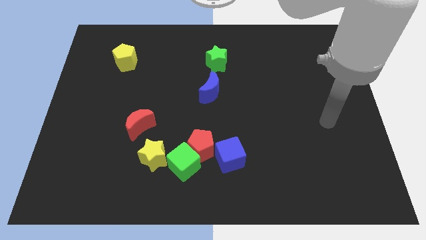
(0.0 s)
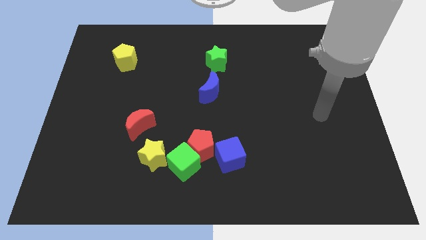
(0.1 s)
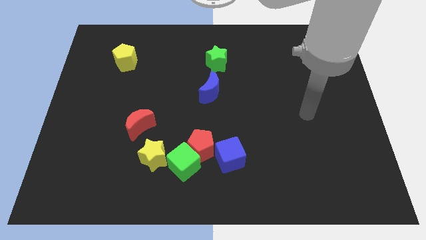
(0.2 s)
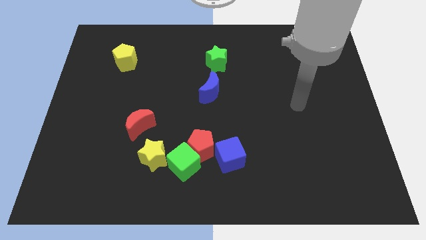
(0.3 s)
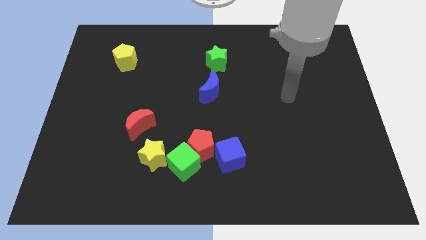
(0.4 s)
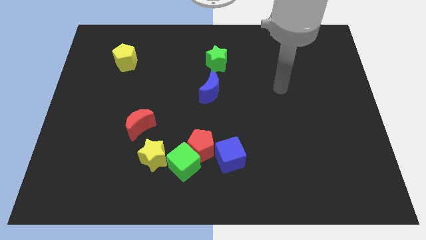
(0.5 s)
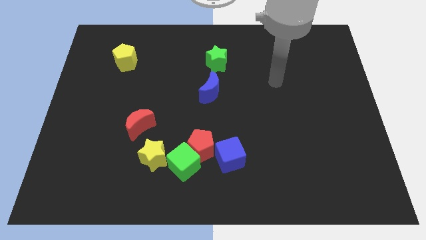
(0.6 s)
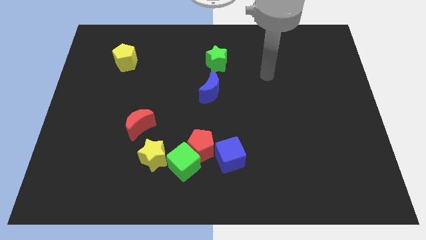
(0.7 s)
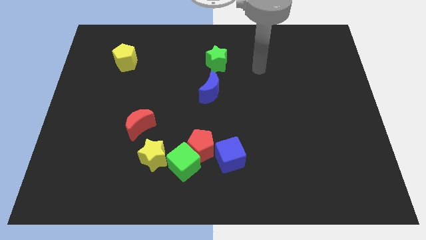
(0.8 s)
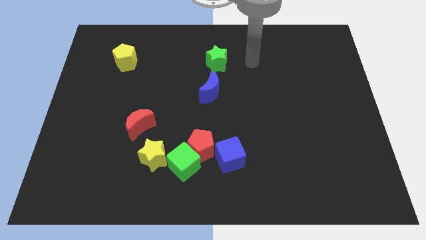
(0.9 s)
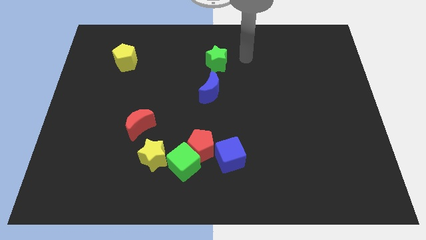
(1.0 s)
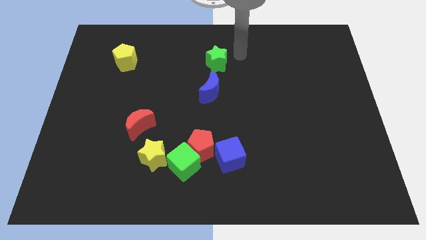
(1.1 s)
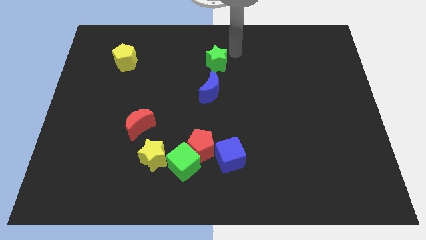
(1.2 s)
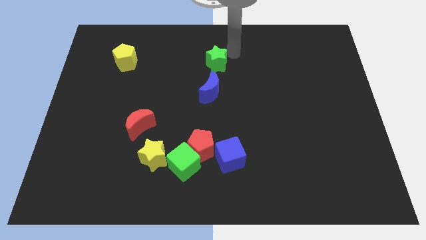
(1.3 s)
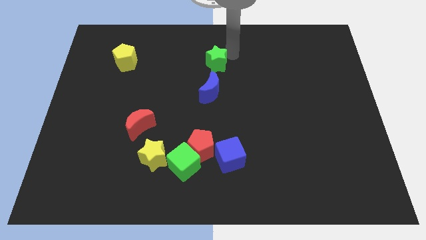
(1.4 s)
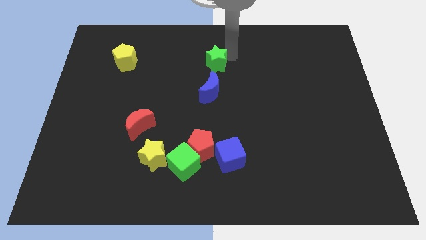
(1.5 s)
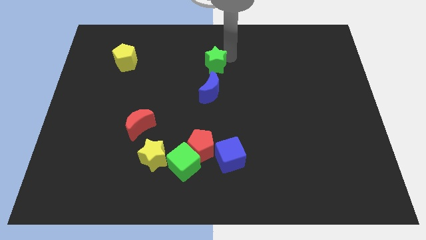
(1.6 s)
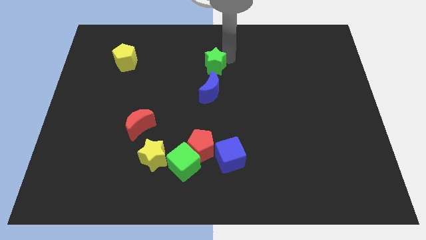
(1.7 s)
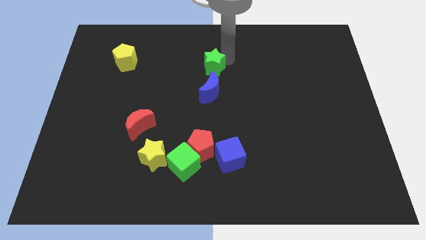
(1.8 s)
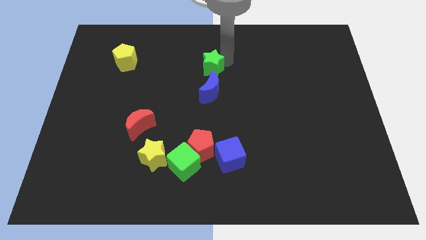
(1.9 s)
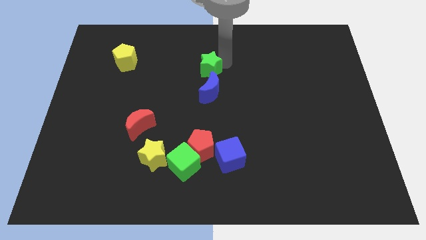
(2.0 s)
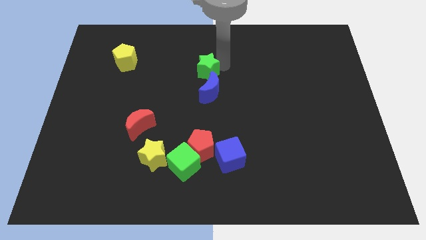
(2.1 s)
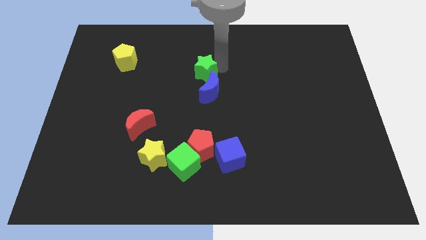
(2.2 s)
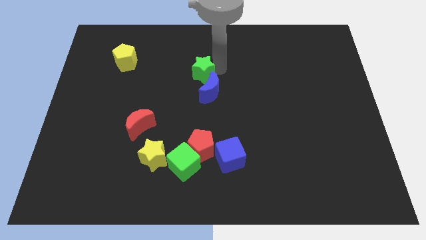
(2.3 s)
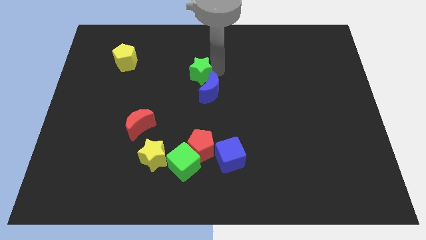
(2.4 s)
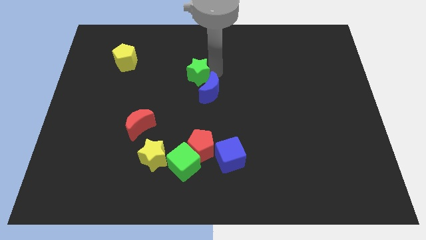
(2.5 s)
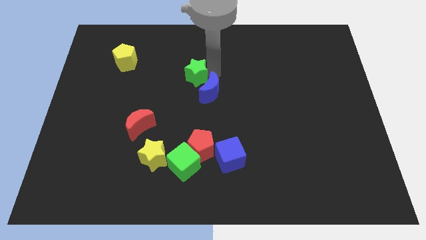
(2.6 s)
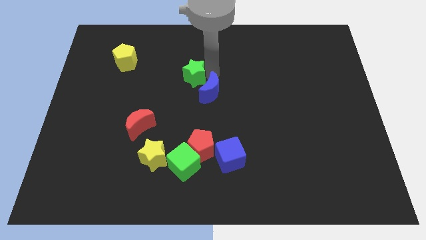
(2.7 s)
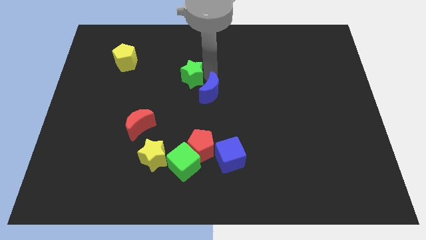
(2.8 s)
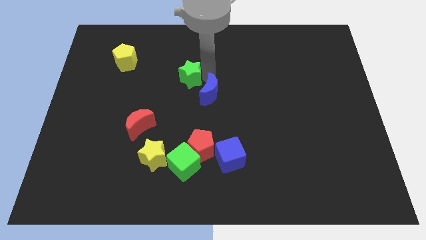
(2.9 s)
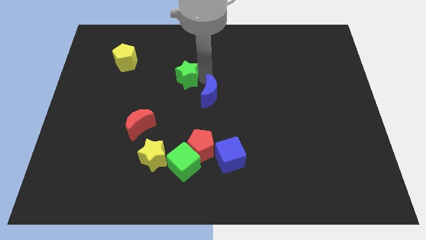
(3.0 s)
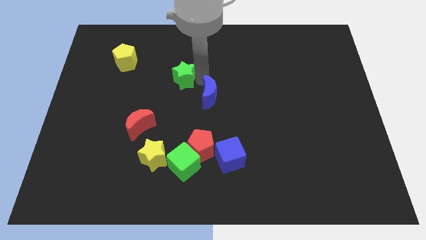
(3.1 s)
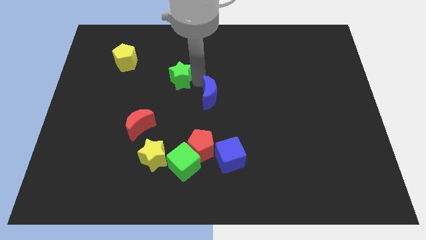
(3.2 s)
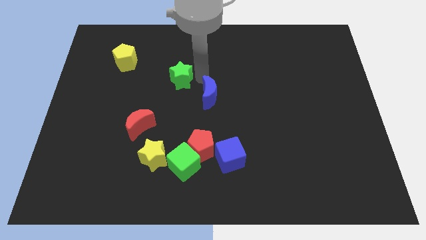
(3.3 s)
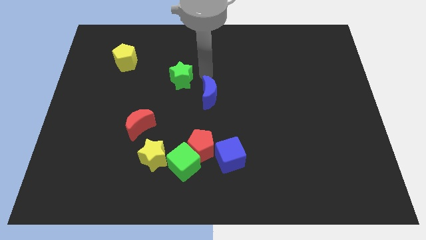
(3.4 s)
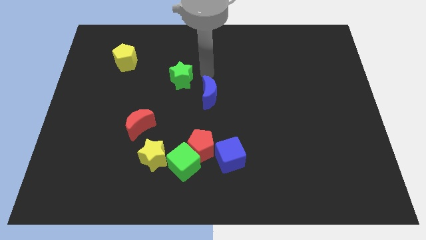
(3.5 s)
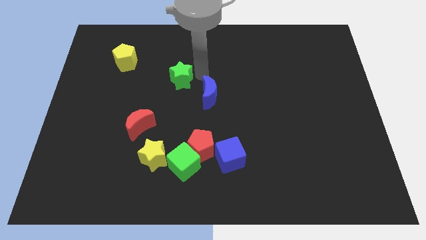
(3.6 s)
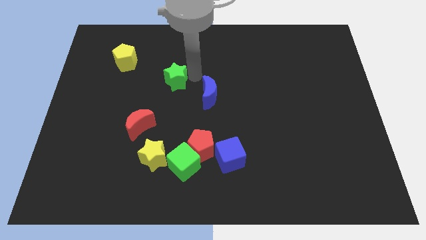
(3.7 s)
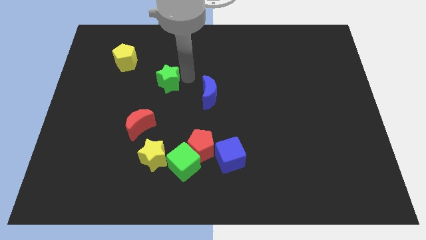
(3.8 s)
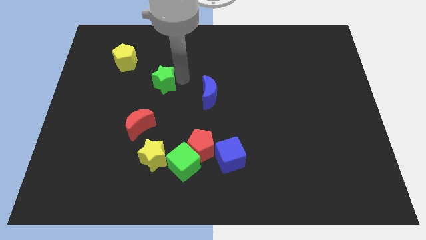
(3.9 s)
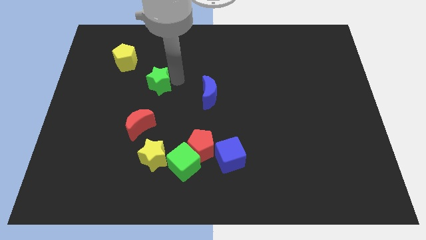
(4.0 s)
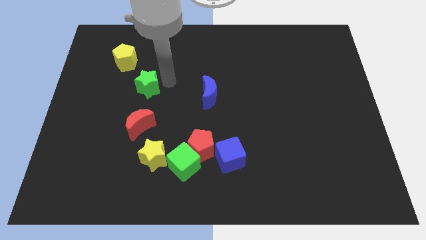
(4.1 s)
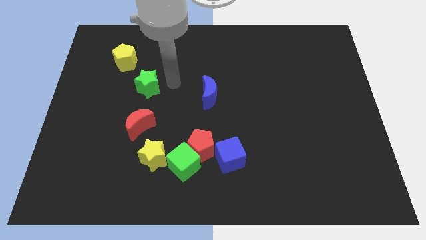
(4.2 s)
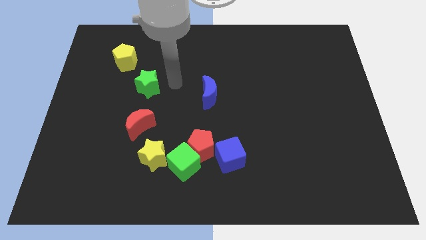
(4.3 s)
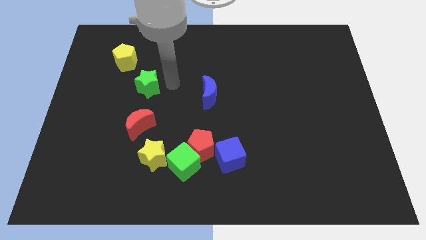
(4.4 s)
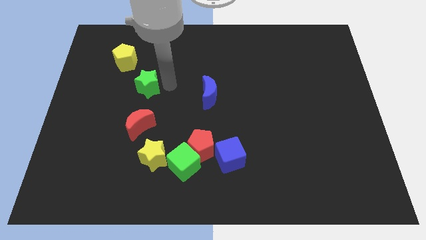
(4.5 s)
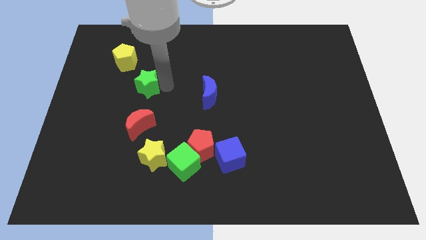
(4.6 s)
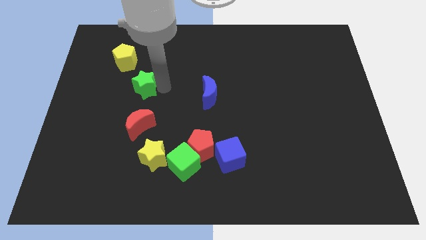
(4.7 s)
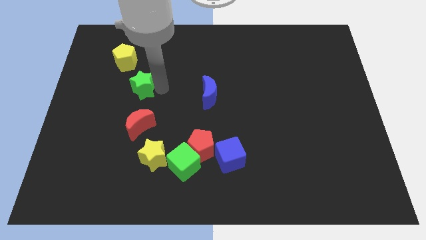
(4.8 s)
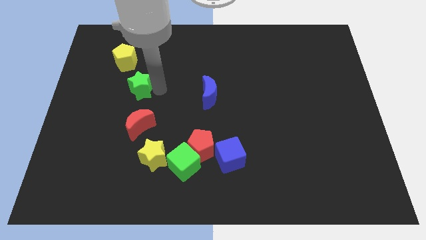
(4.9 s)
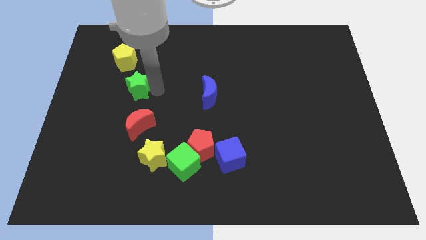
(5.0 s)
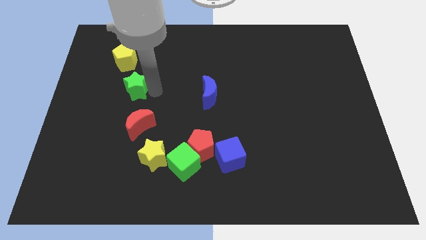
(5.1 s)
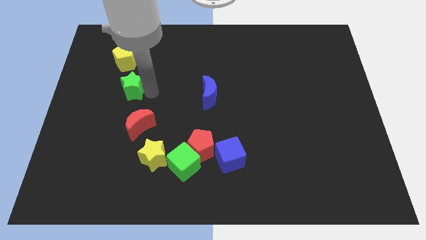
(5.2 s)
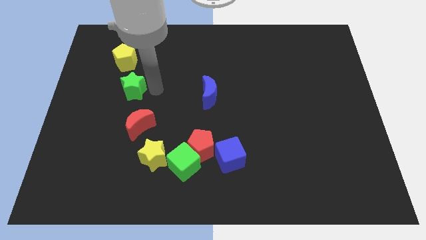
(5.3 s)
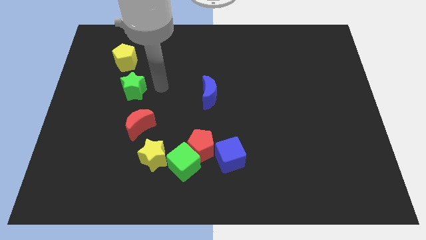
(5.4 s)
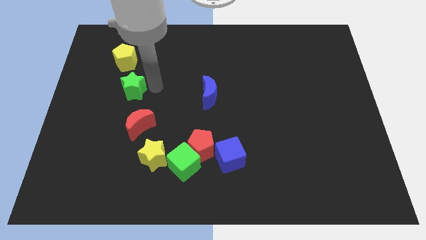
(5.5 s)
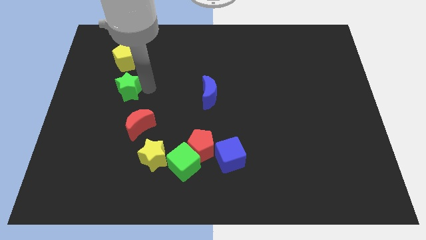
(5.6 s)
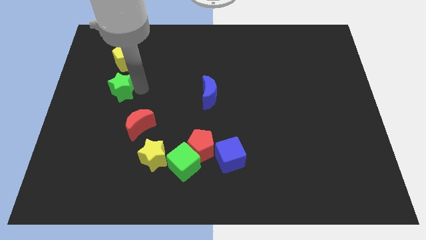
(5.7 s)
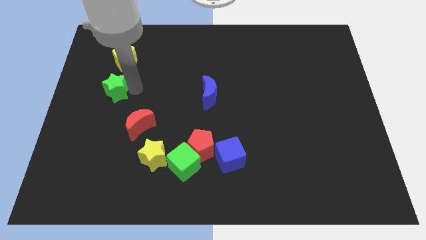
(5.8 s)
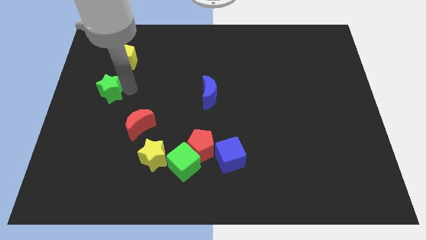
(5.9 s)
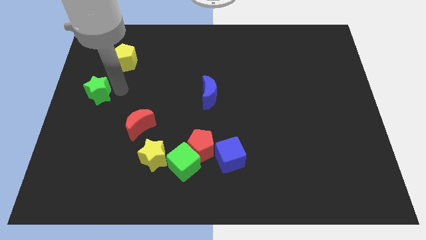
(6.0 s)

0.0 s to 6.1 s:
slide the green star to the left side

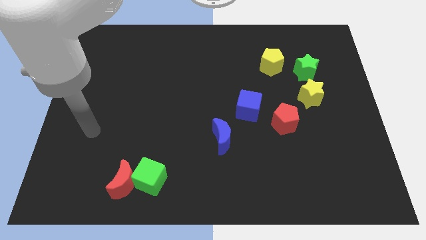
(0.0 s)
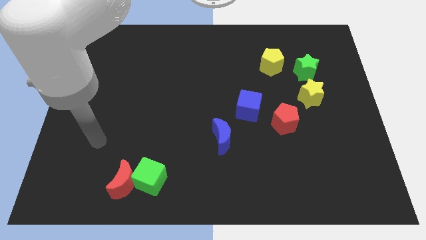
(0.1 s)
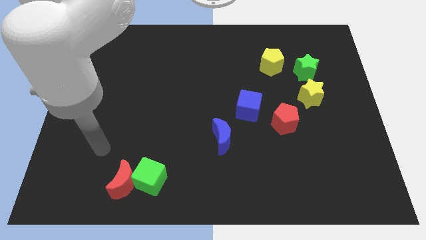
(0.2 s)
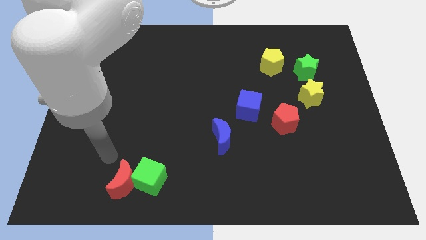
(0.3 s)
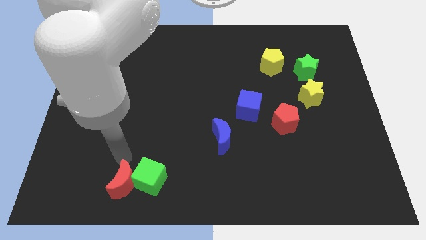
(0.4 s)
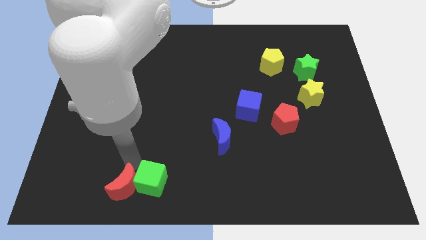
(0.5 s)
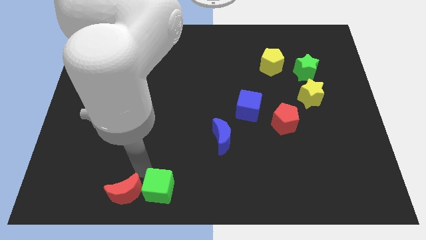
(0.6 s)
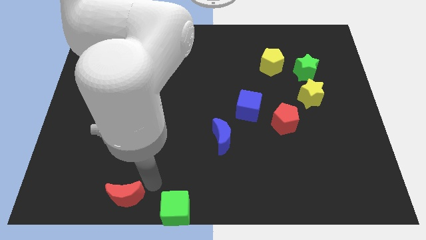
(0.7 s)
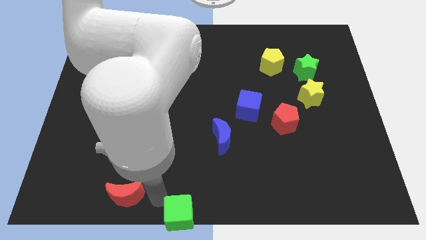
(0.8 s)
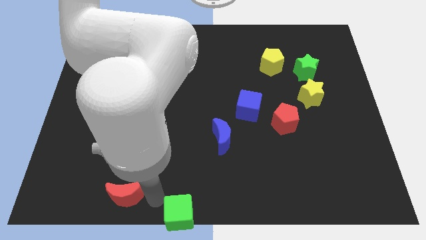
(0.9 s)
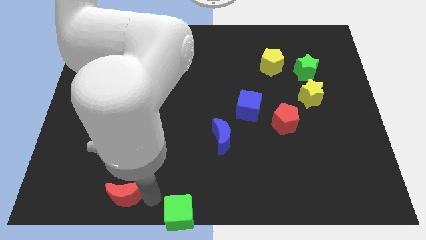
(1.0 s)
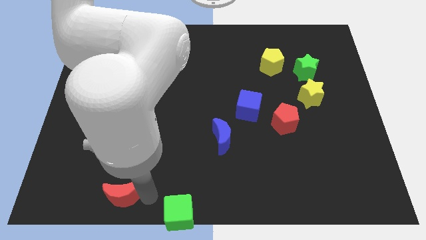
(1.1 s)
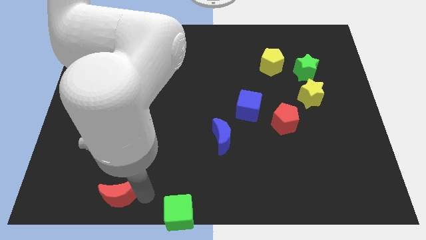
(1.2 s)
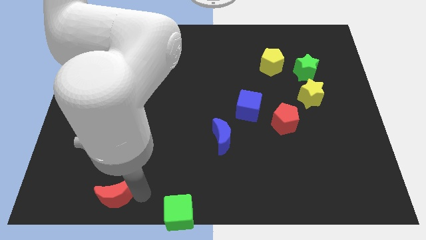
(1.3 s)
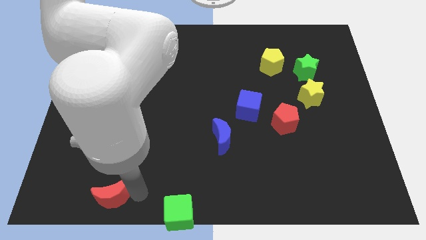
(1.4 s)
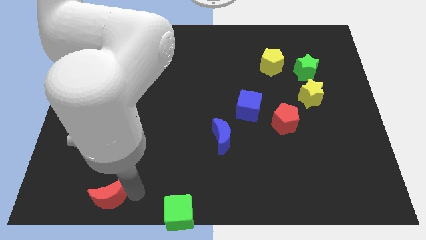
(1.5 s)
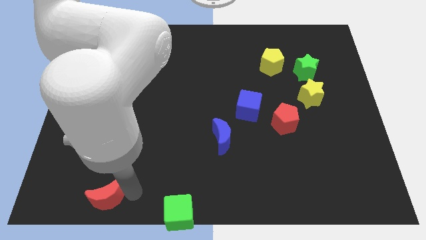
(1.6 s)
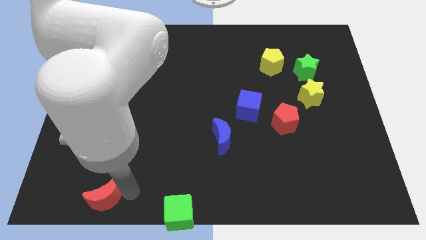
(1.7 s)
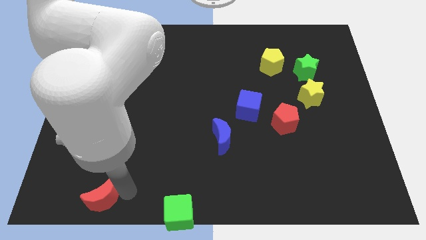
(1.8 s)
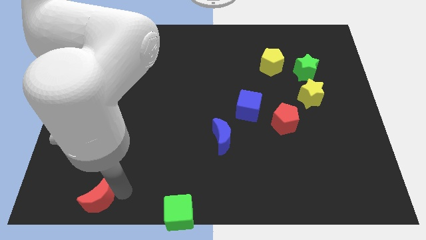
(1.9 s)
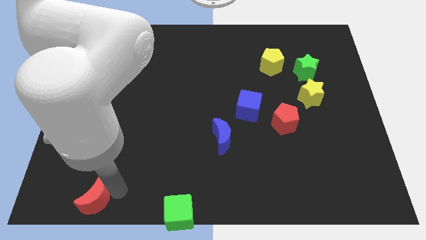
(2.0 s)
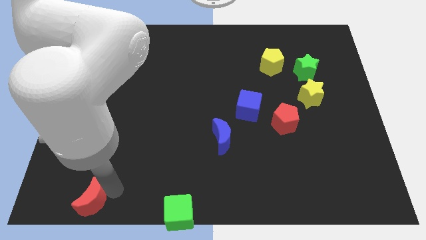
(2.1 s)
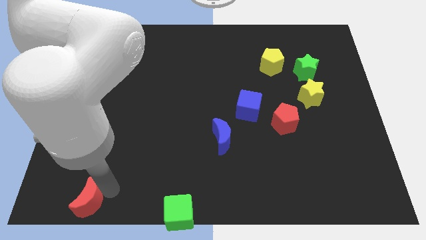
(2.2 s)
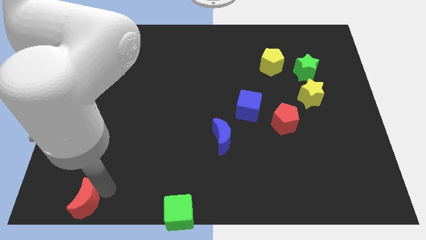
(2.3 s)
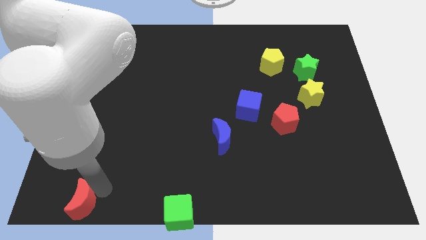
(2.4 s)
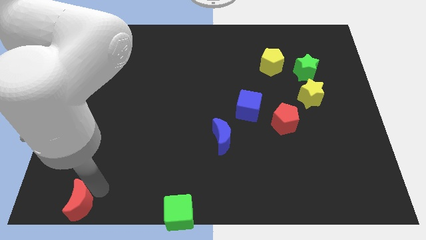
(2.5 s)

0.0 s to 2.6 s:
push the red moon to the lower left corner
